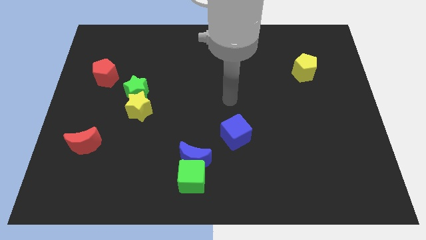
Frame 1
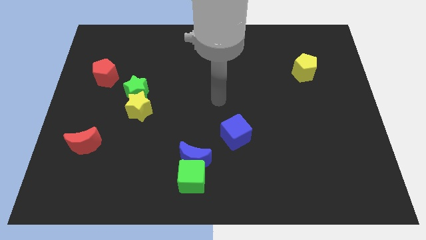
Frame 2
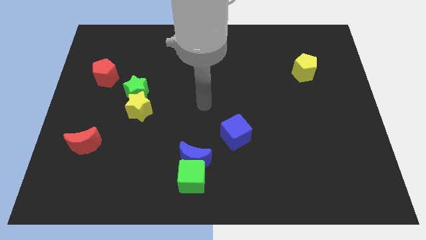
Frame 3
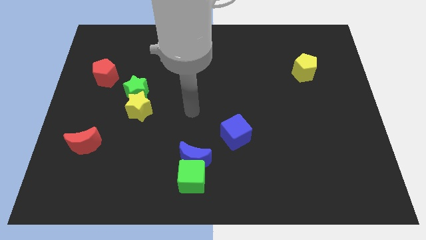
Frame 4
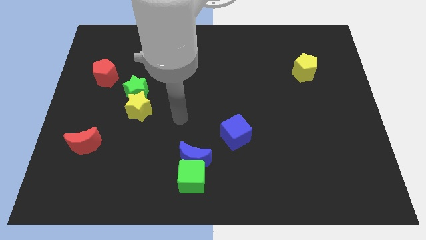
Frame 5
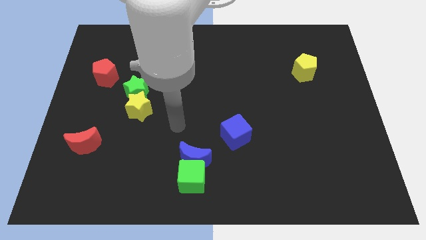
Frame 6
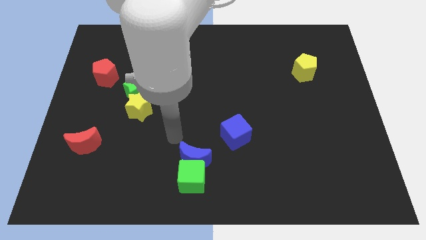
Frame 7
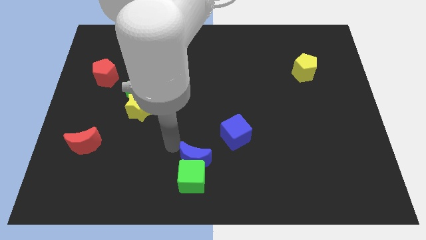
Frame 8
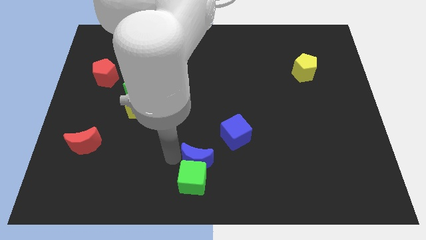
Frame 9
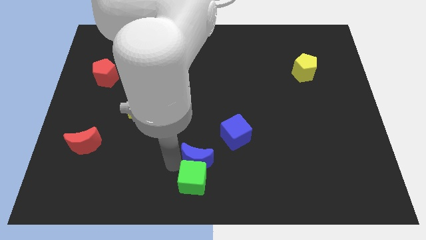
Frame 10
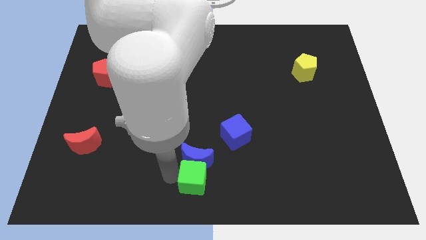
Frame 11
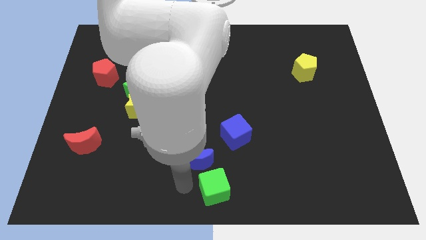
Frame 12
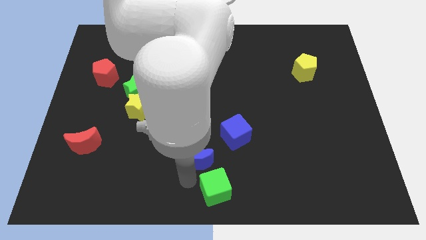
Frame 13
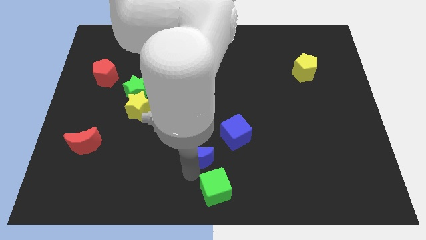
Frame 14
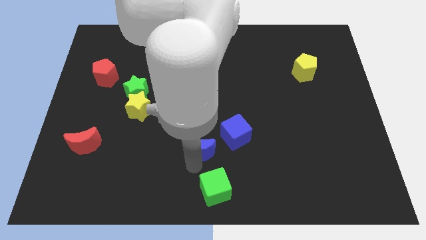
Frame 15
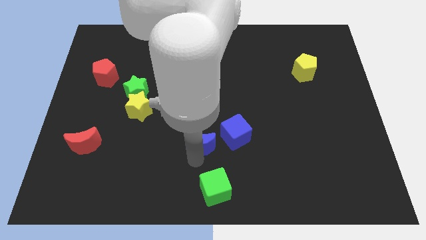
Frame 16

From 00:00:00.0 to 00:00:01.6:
separate the blue moon from the green cube

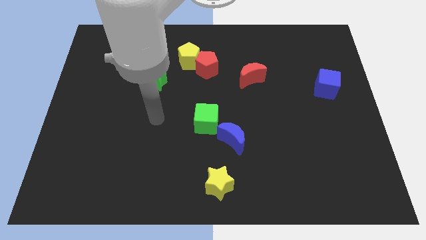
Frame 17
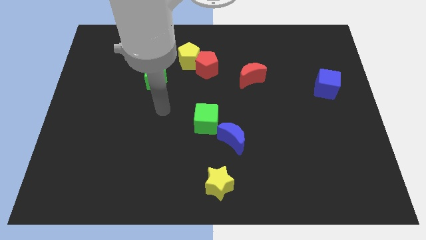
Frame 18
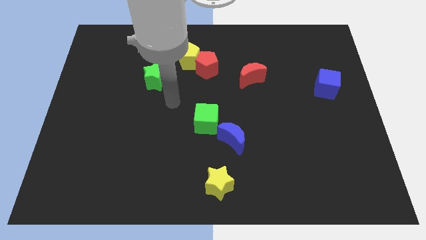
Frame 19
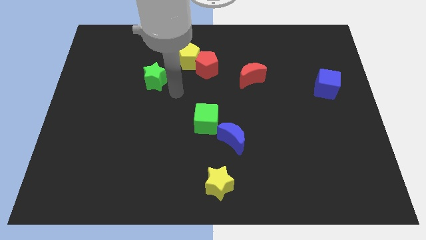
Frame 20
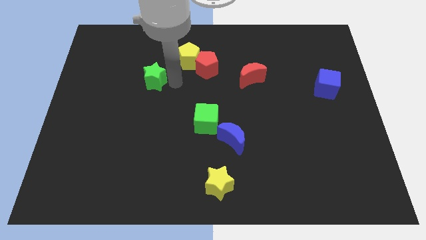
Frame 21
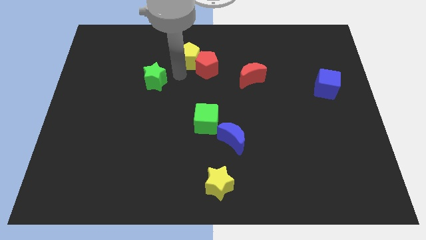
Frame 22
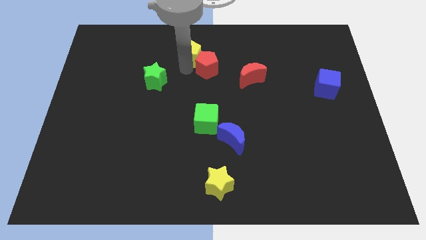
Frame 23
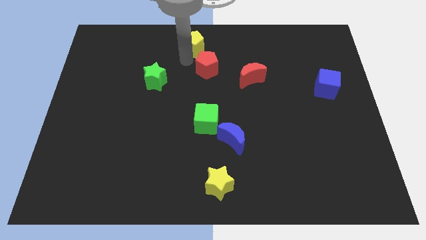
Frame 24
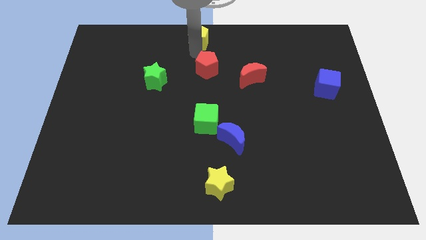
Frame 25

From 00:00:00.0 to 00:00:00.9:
separate the red pentagon from the yellow pentagon

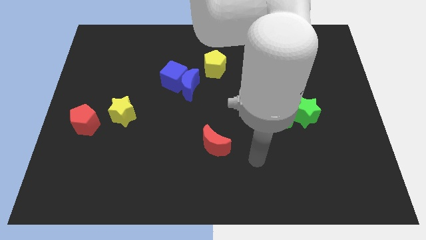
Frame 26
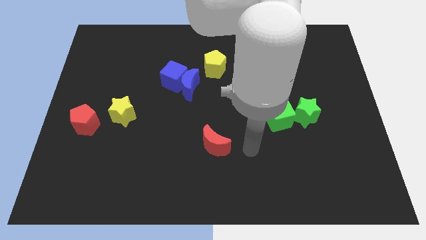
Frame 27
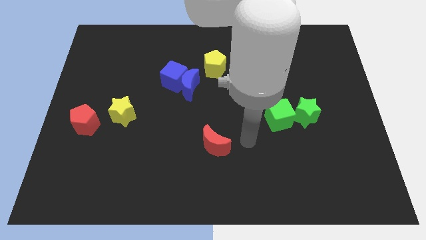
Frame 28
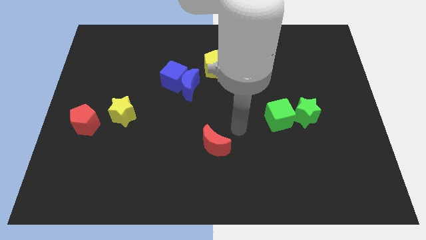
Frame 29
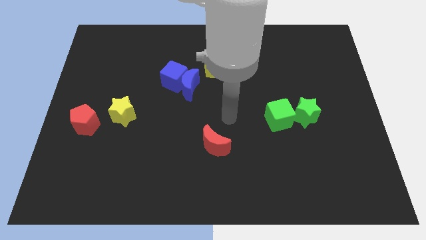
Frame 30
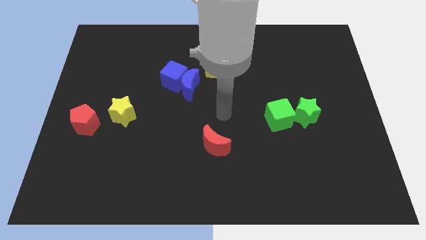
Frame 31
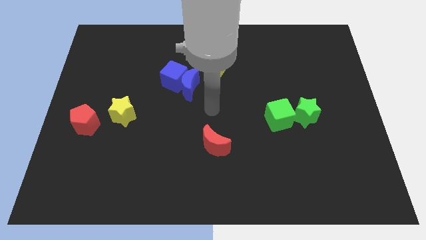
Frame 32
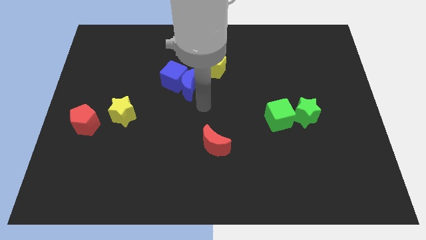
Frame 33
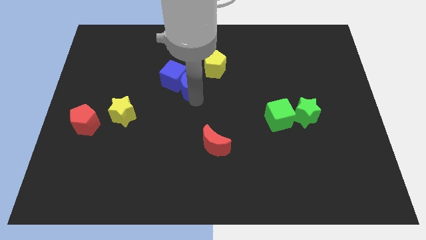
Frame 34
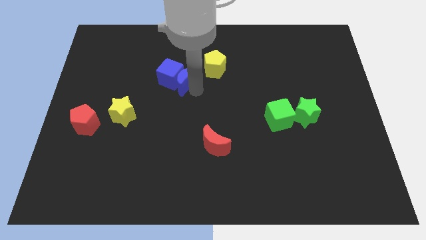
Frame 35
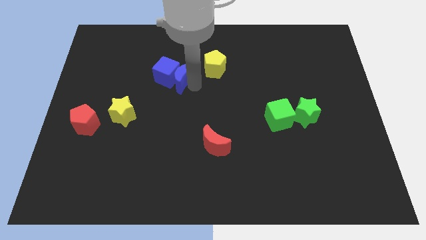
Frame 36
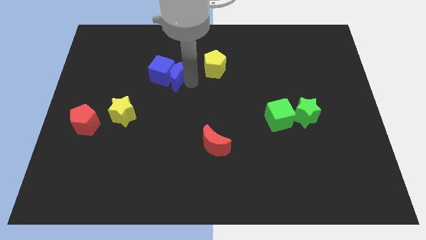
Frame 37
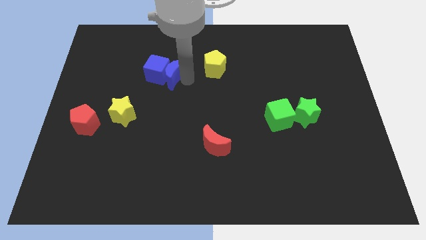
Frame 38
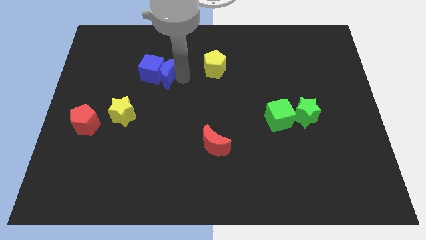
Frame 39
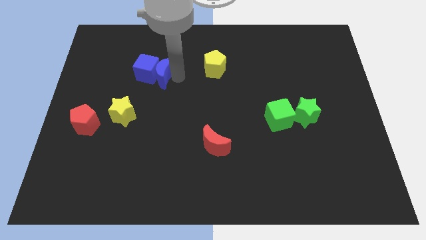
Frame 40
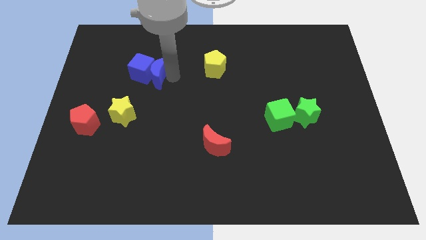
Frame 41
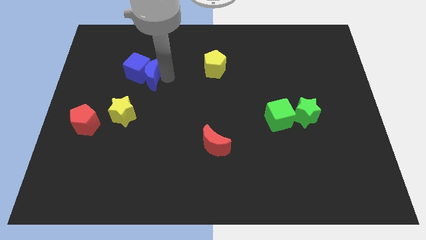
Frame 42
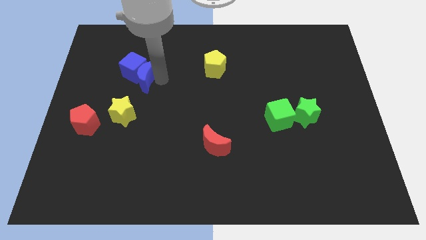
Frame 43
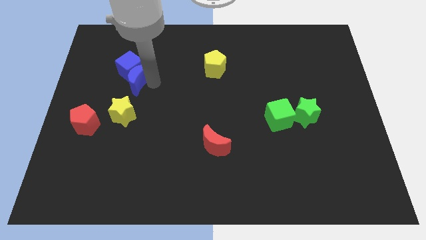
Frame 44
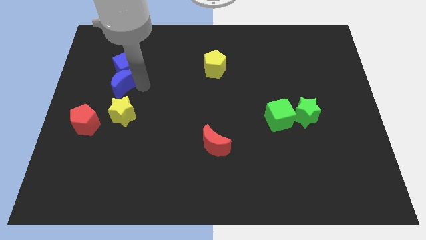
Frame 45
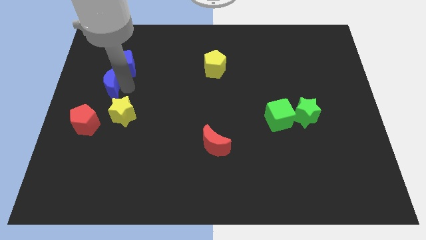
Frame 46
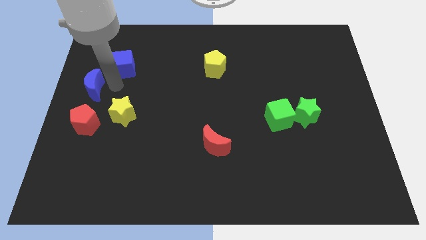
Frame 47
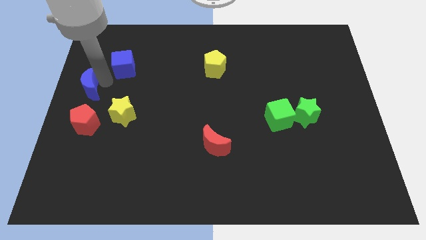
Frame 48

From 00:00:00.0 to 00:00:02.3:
pull the blue cube apart from the blue moon

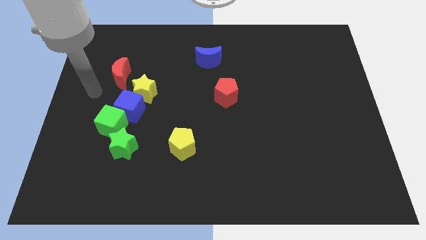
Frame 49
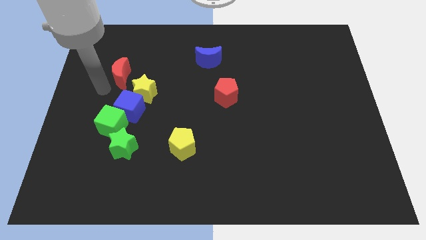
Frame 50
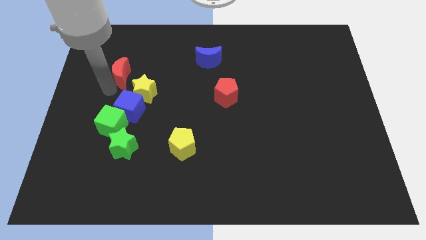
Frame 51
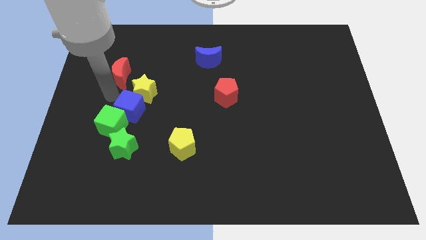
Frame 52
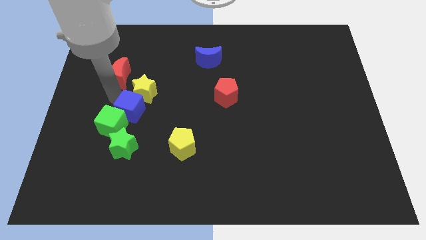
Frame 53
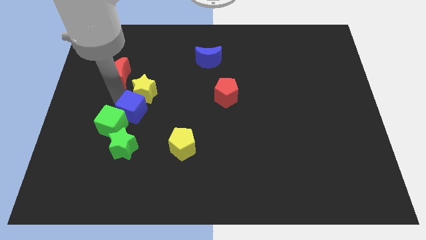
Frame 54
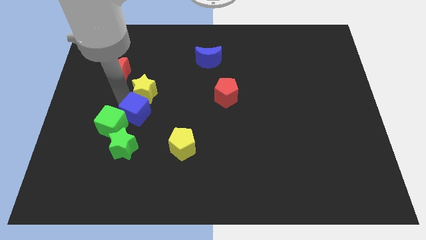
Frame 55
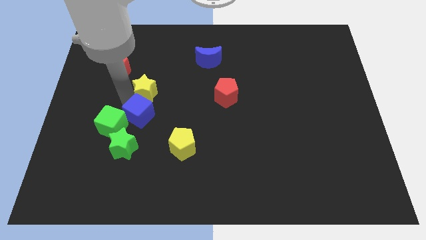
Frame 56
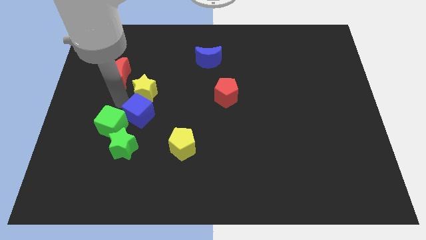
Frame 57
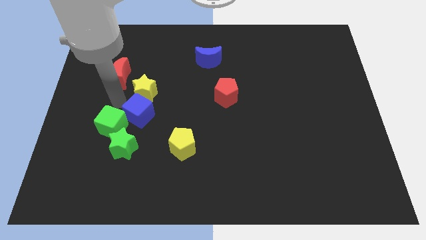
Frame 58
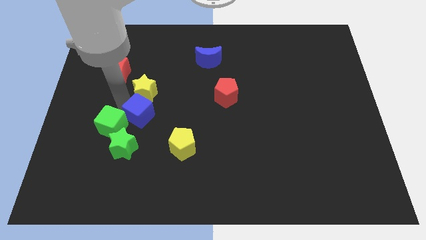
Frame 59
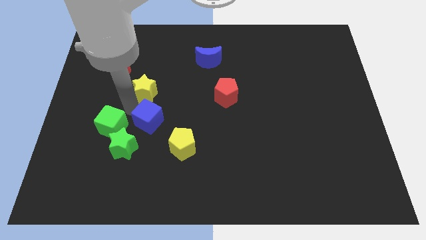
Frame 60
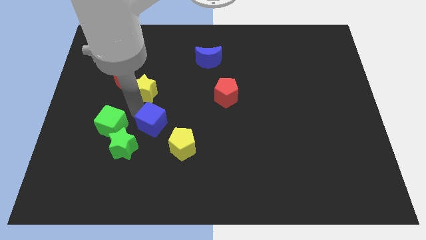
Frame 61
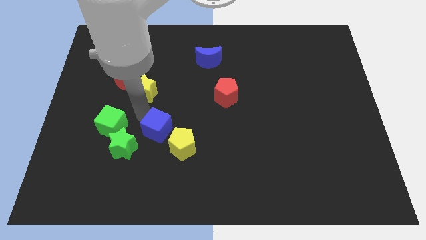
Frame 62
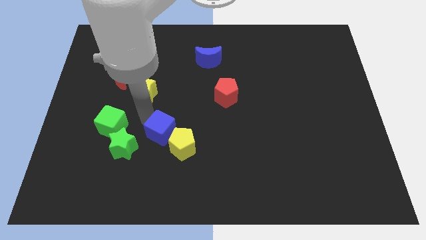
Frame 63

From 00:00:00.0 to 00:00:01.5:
separate the blue cube from the green cube and yellow star

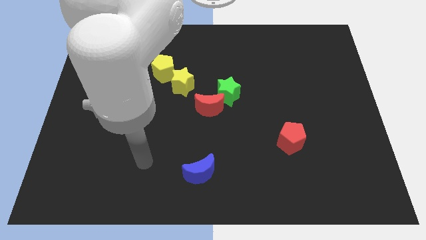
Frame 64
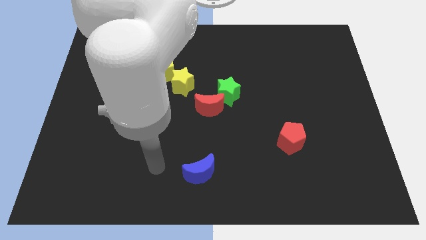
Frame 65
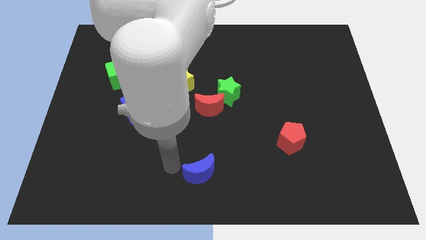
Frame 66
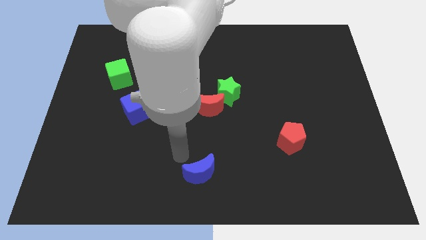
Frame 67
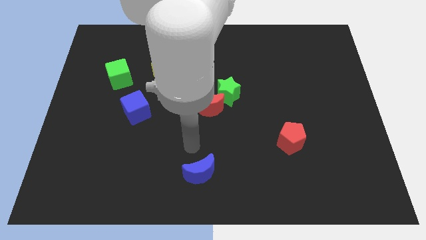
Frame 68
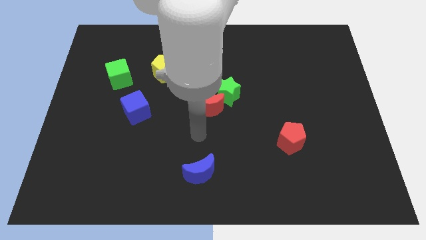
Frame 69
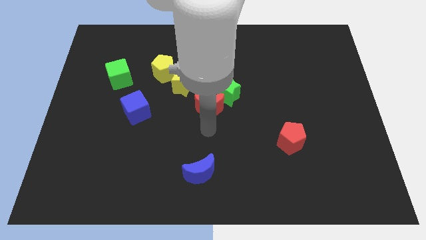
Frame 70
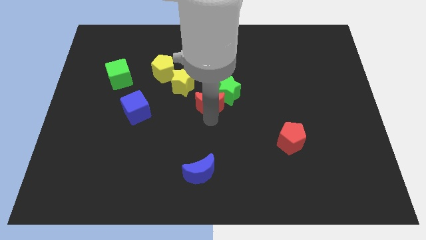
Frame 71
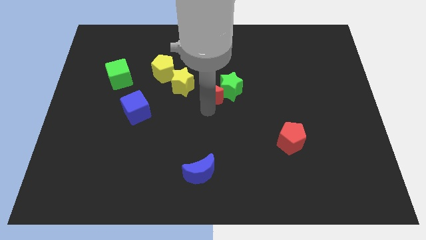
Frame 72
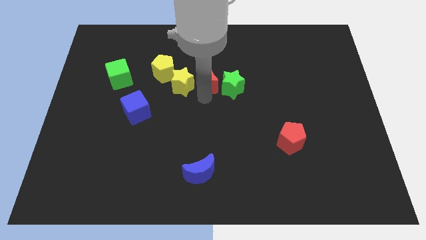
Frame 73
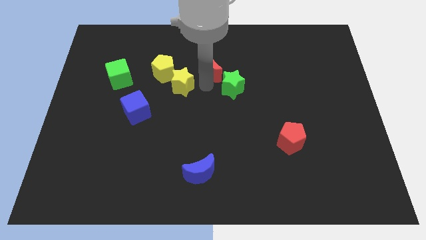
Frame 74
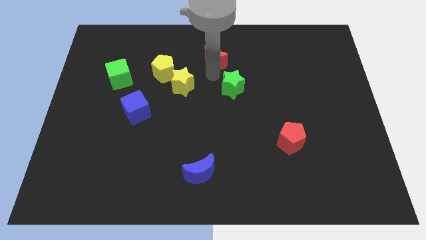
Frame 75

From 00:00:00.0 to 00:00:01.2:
separate the green star from the red moon

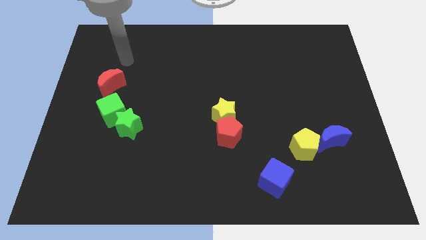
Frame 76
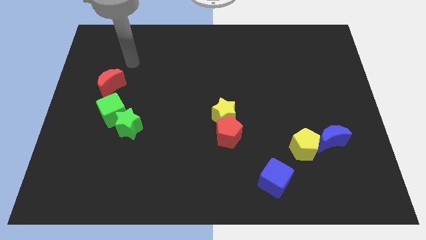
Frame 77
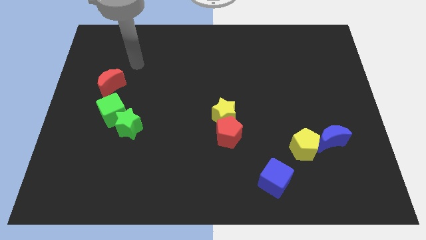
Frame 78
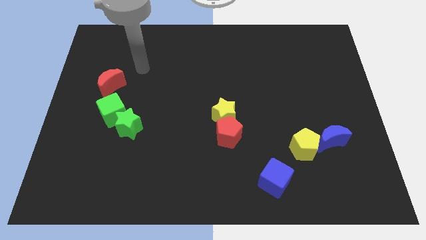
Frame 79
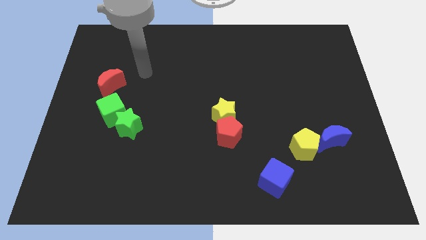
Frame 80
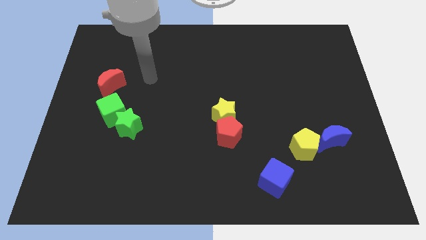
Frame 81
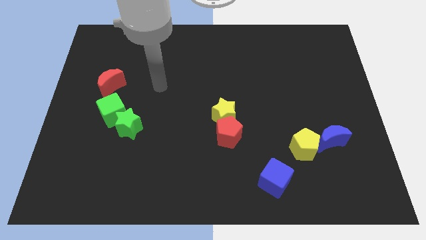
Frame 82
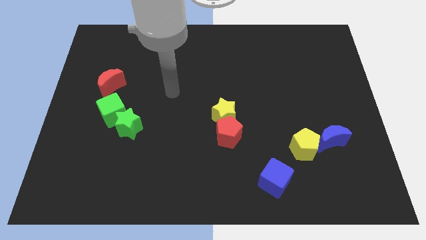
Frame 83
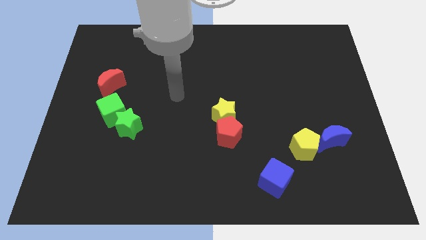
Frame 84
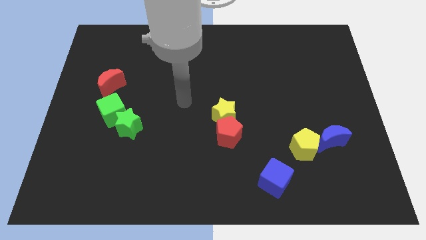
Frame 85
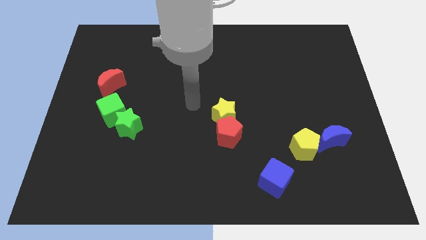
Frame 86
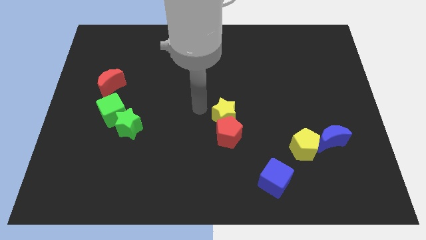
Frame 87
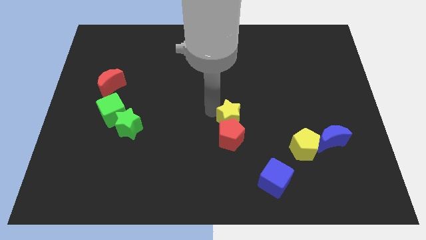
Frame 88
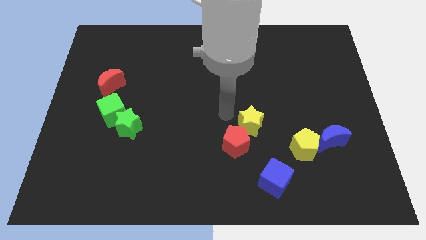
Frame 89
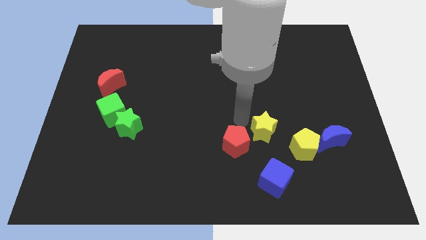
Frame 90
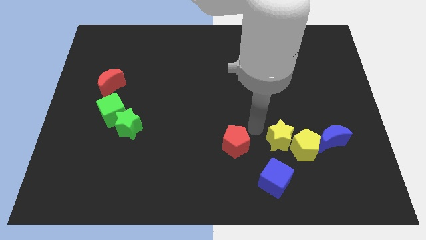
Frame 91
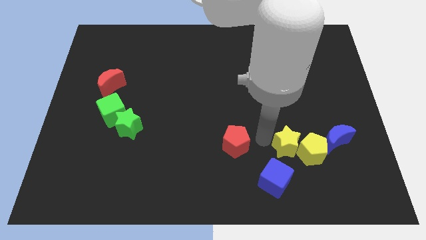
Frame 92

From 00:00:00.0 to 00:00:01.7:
move the red pentagon away from the yellow star

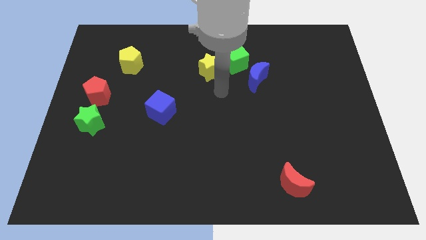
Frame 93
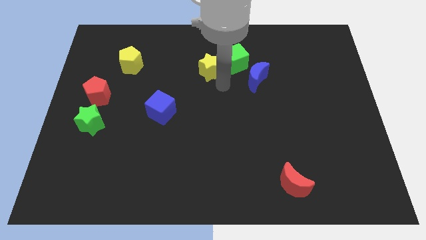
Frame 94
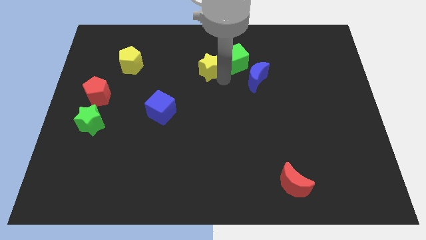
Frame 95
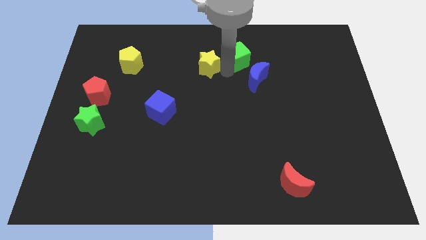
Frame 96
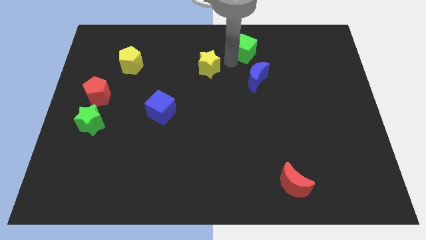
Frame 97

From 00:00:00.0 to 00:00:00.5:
separate the yellow star from the green cube
